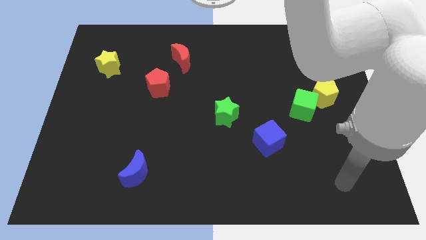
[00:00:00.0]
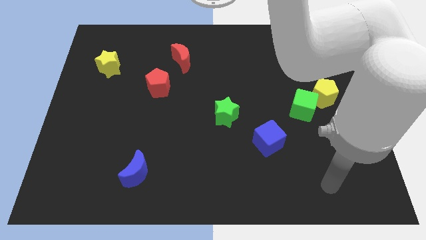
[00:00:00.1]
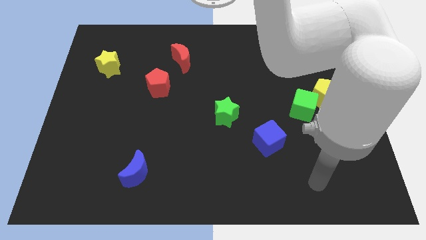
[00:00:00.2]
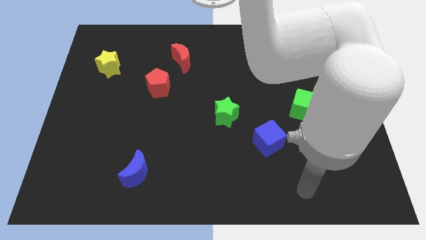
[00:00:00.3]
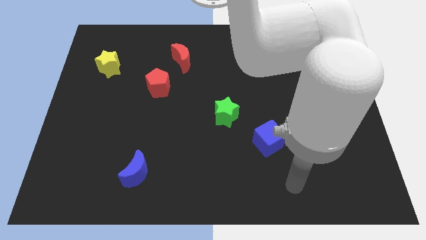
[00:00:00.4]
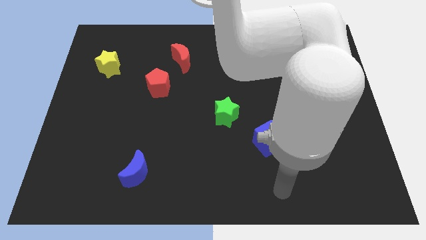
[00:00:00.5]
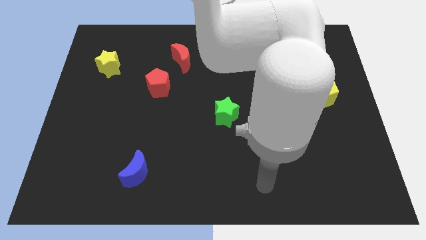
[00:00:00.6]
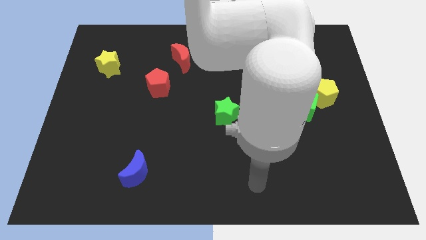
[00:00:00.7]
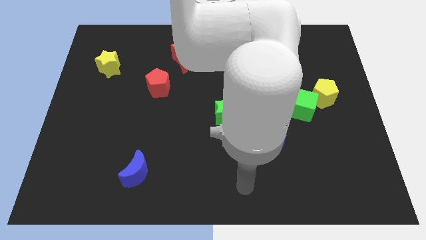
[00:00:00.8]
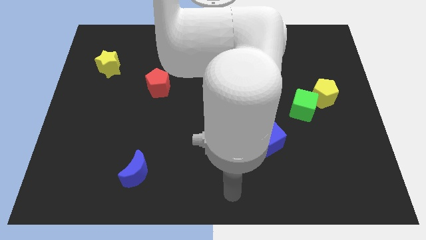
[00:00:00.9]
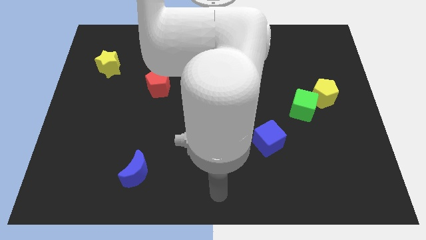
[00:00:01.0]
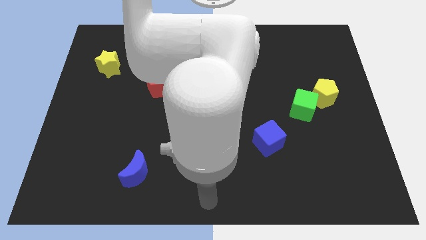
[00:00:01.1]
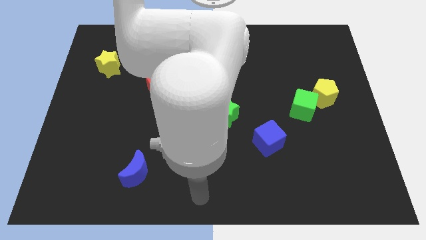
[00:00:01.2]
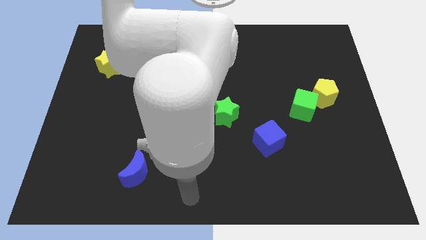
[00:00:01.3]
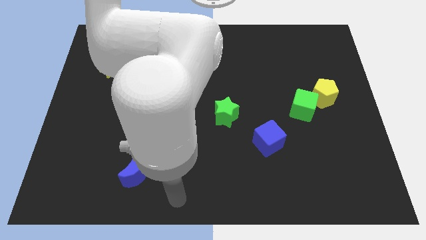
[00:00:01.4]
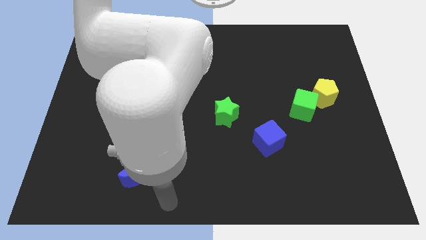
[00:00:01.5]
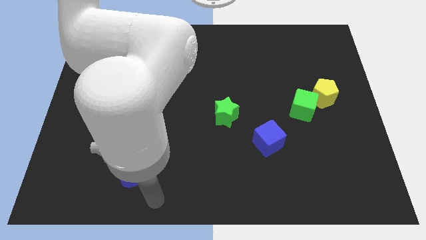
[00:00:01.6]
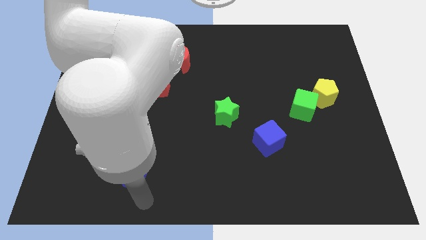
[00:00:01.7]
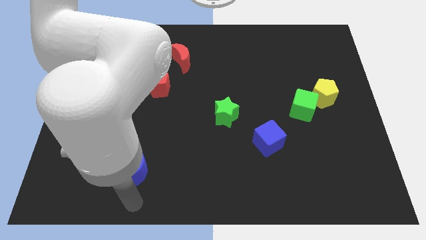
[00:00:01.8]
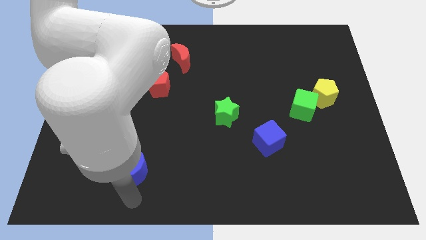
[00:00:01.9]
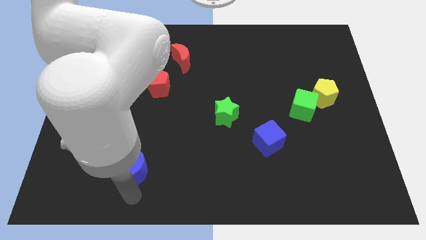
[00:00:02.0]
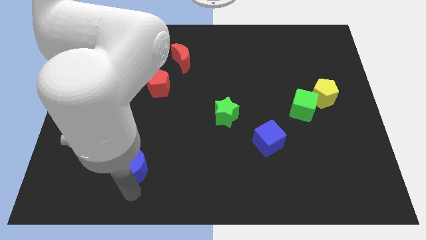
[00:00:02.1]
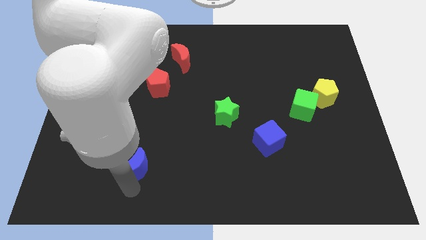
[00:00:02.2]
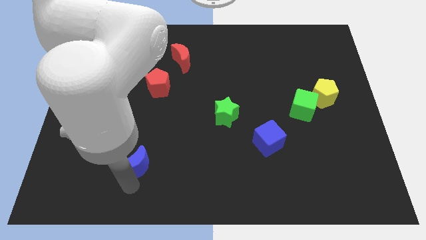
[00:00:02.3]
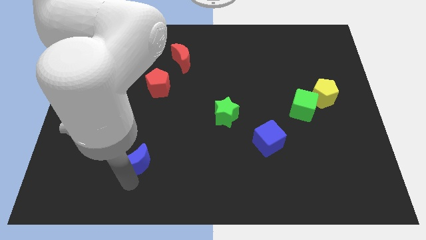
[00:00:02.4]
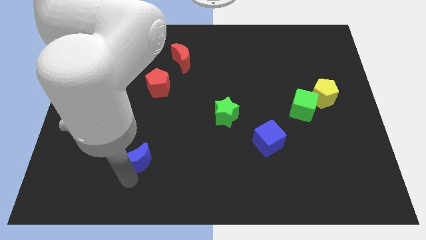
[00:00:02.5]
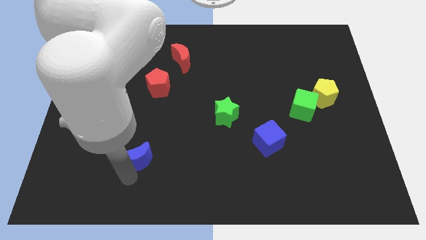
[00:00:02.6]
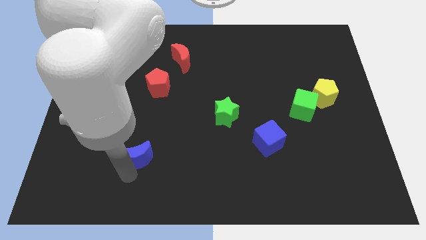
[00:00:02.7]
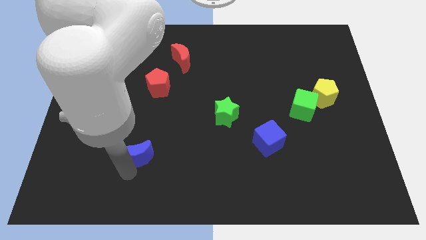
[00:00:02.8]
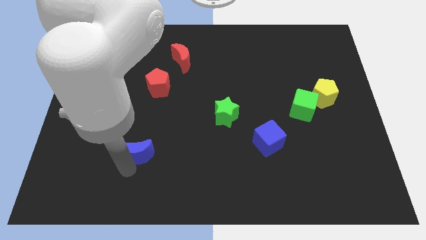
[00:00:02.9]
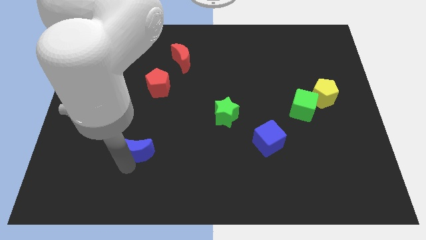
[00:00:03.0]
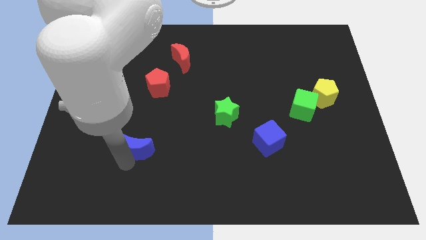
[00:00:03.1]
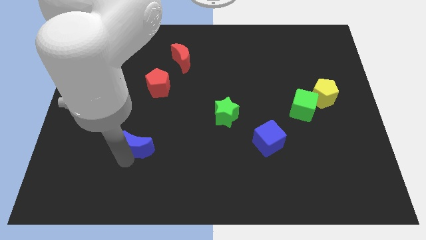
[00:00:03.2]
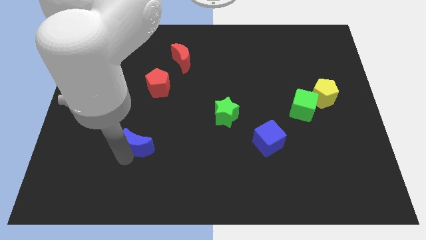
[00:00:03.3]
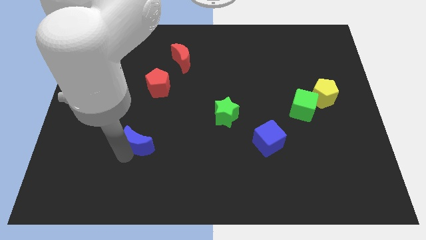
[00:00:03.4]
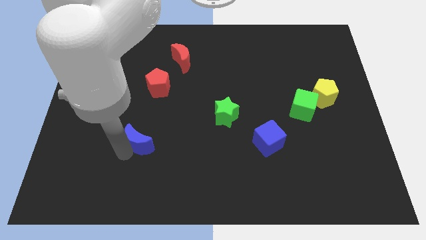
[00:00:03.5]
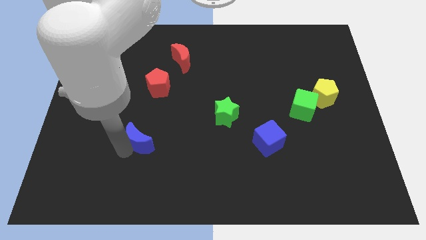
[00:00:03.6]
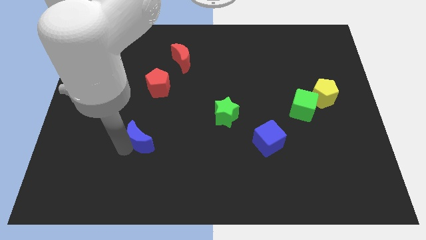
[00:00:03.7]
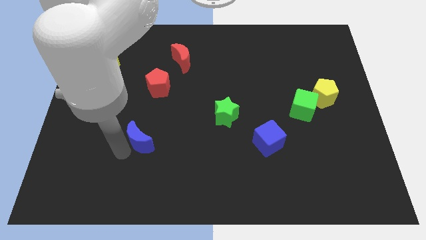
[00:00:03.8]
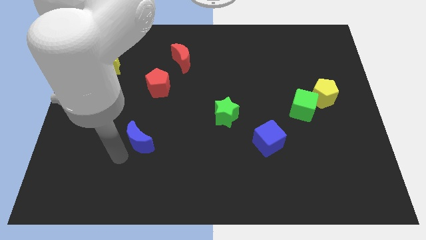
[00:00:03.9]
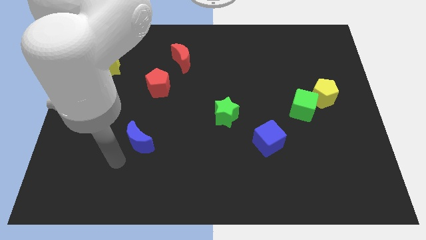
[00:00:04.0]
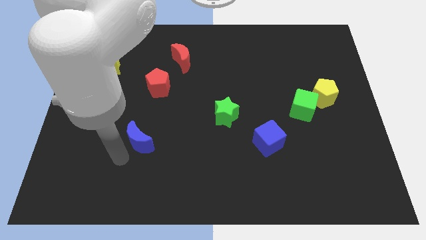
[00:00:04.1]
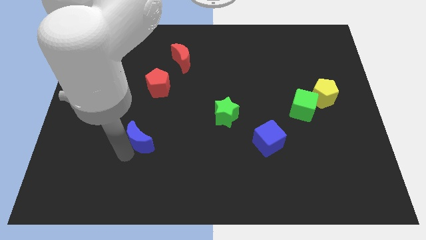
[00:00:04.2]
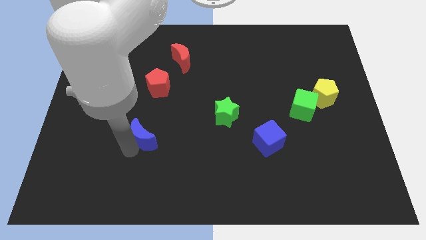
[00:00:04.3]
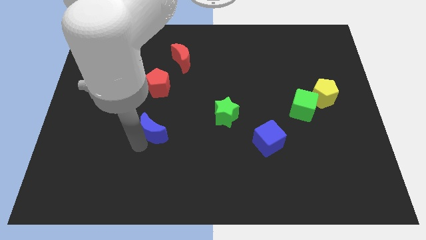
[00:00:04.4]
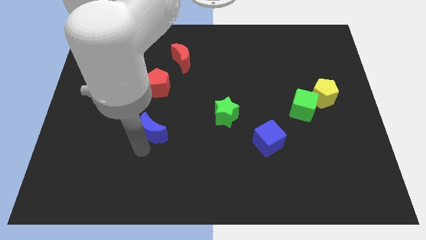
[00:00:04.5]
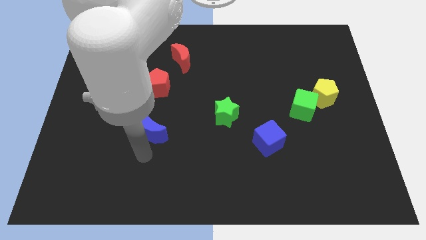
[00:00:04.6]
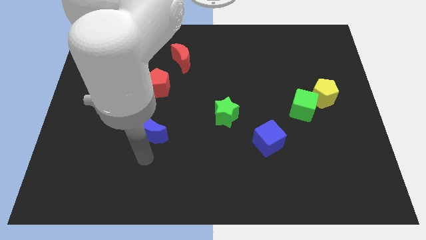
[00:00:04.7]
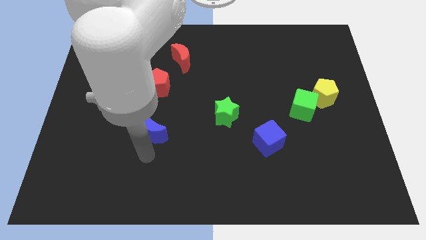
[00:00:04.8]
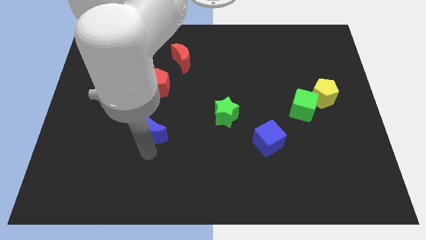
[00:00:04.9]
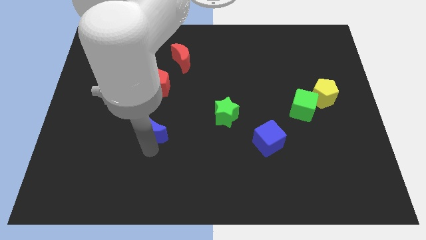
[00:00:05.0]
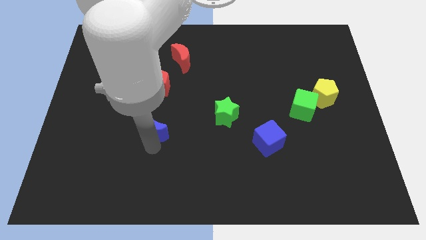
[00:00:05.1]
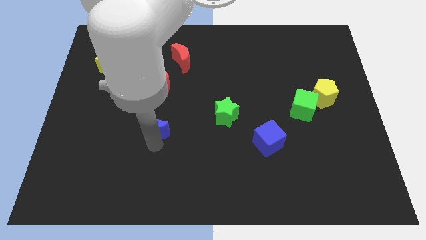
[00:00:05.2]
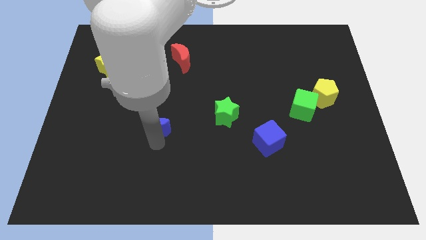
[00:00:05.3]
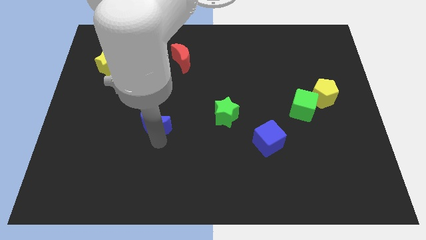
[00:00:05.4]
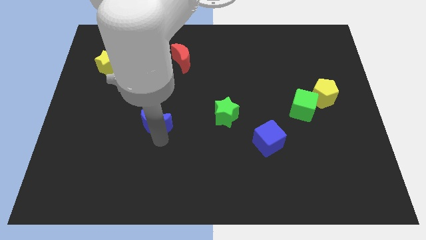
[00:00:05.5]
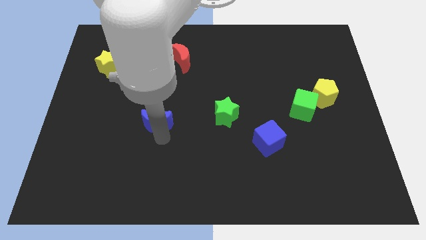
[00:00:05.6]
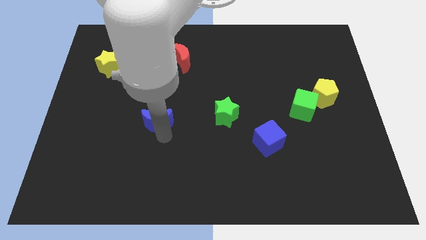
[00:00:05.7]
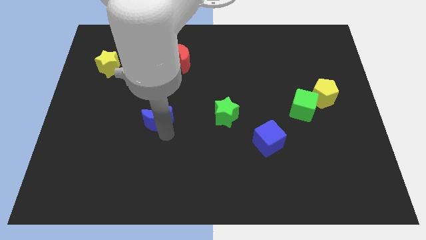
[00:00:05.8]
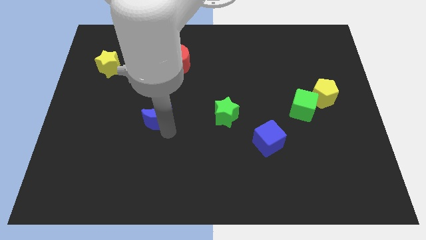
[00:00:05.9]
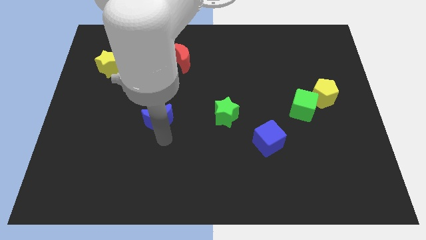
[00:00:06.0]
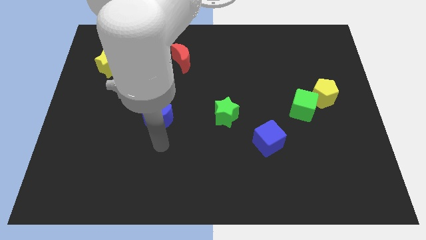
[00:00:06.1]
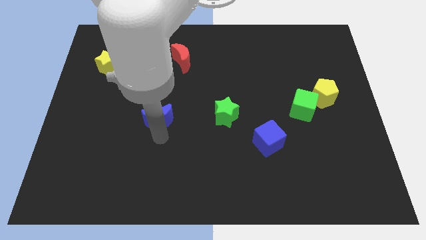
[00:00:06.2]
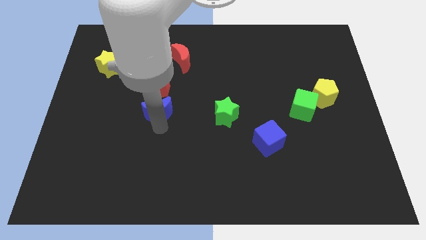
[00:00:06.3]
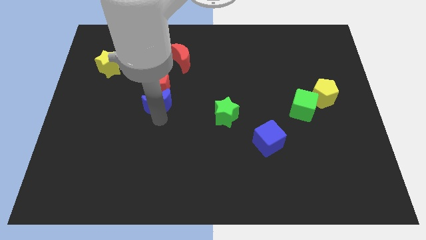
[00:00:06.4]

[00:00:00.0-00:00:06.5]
move the blue moon next to the red pentagon

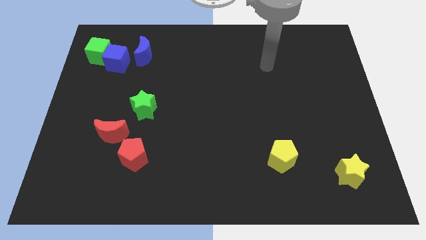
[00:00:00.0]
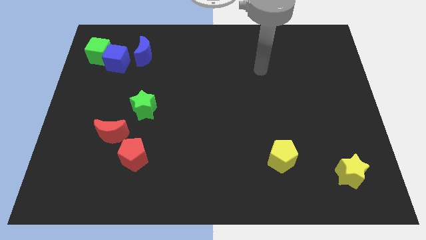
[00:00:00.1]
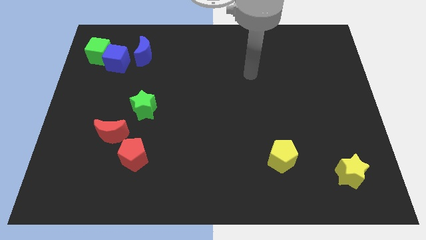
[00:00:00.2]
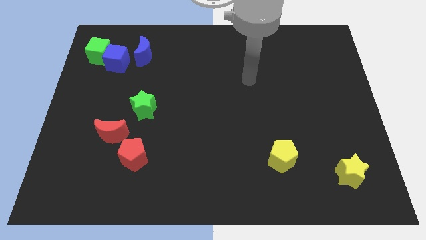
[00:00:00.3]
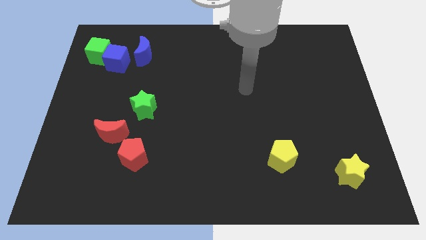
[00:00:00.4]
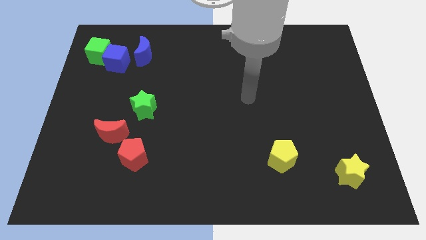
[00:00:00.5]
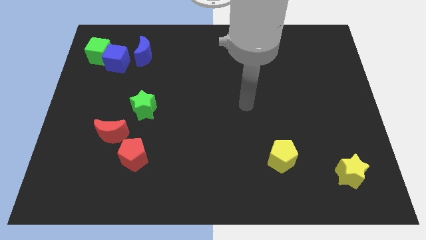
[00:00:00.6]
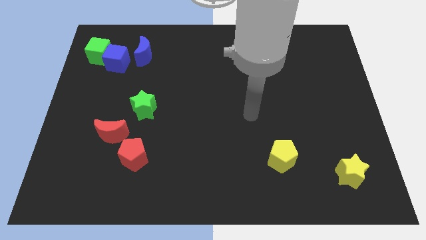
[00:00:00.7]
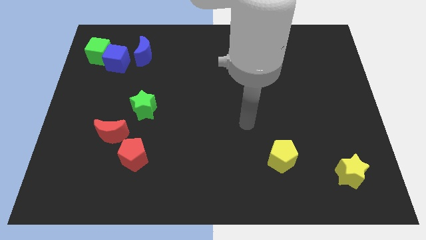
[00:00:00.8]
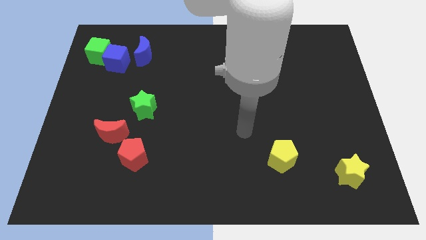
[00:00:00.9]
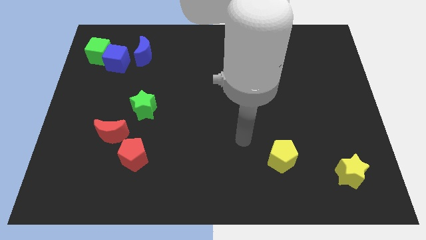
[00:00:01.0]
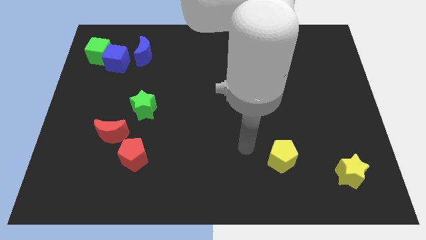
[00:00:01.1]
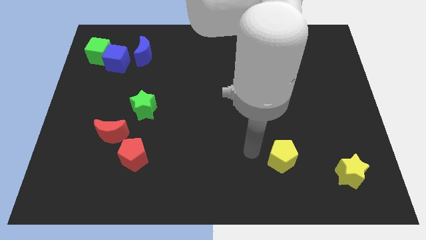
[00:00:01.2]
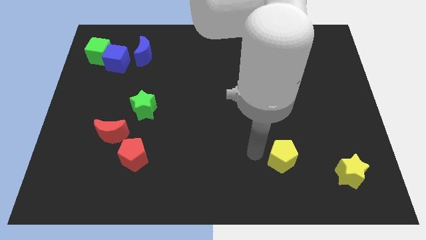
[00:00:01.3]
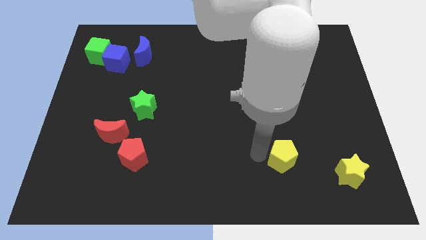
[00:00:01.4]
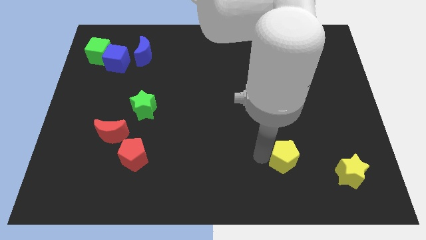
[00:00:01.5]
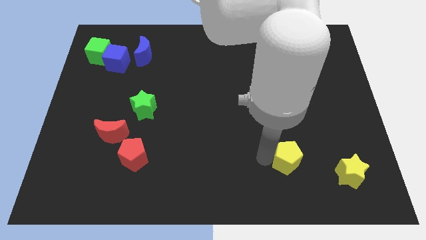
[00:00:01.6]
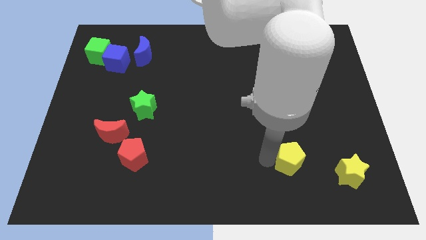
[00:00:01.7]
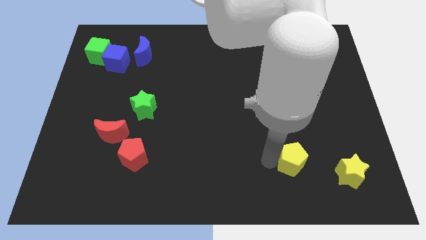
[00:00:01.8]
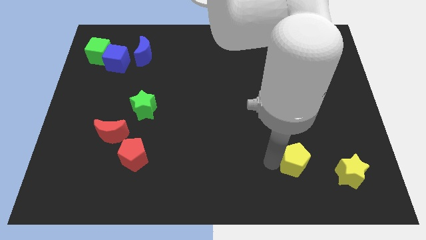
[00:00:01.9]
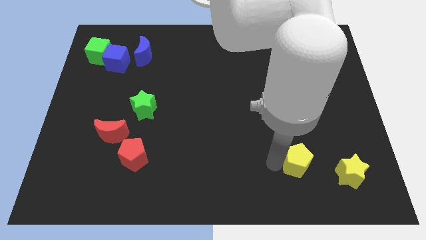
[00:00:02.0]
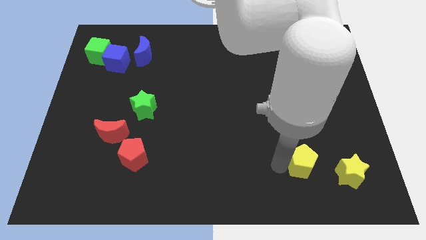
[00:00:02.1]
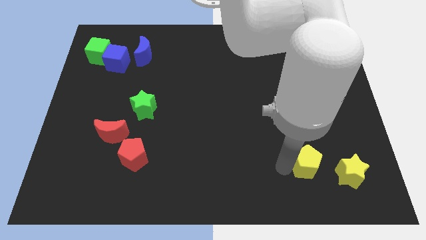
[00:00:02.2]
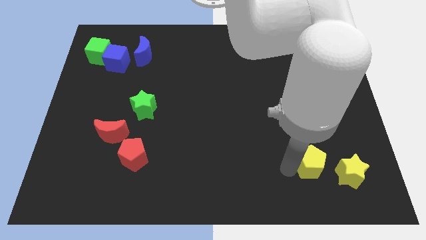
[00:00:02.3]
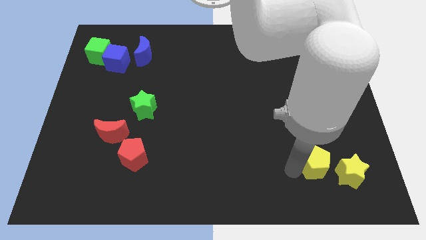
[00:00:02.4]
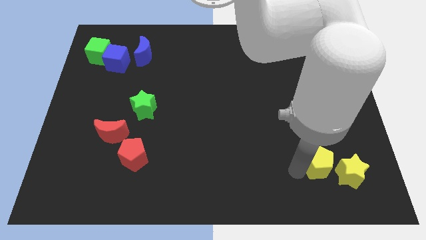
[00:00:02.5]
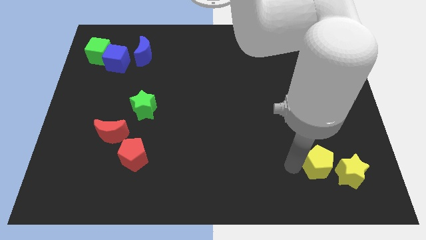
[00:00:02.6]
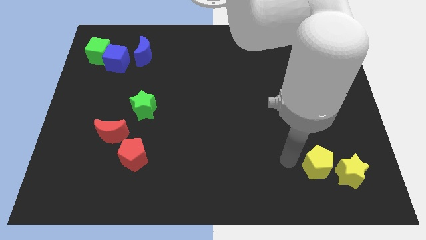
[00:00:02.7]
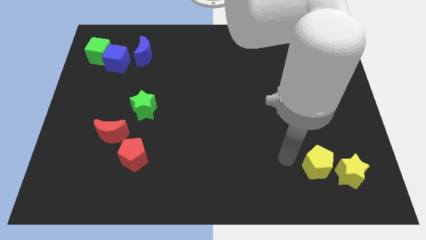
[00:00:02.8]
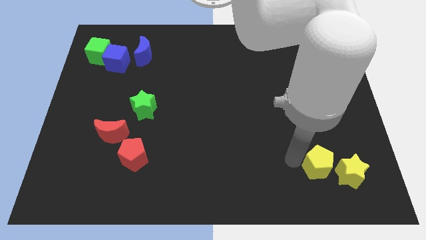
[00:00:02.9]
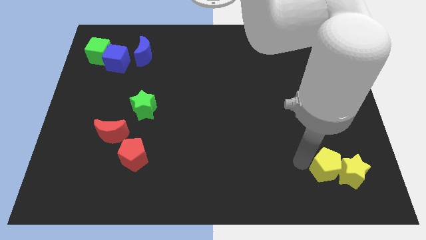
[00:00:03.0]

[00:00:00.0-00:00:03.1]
push the yellow pentagon towards the yellow star
